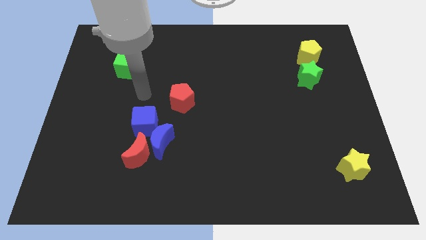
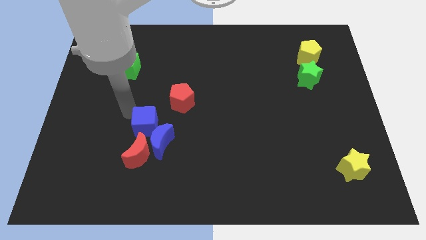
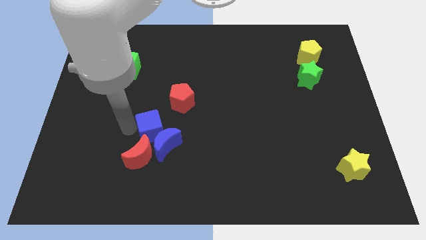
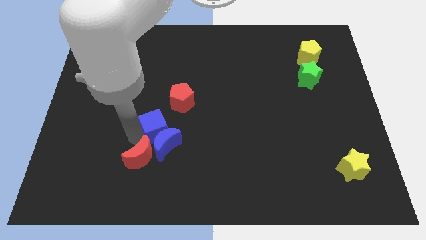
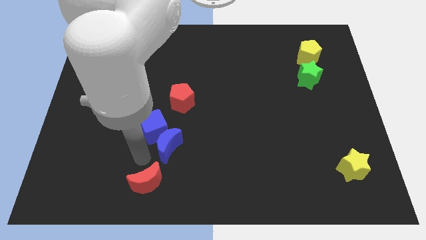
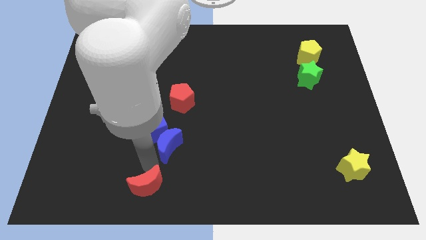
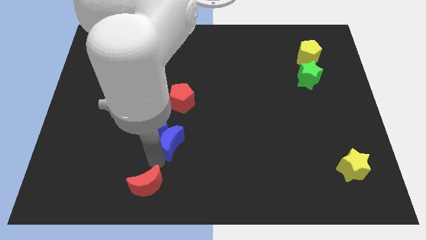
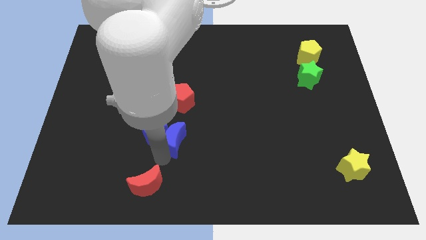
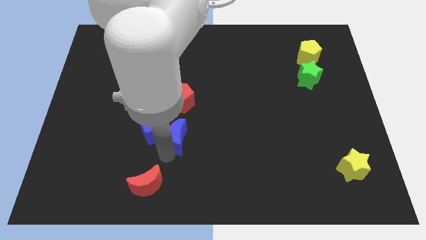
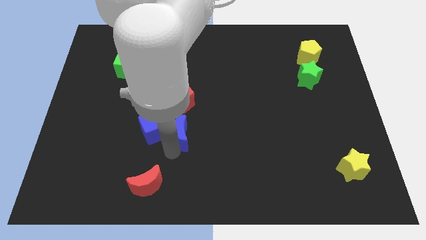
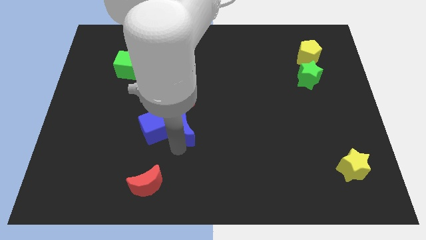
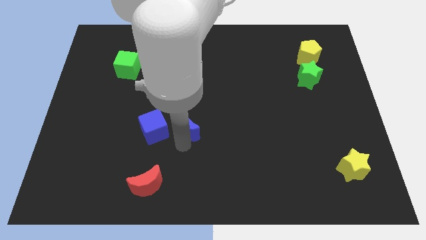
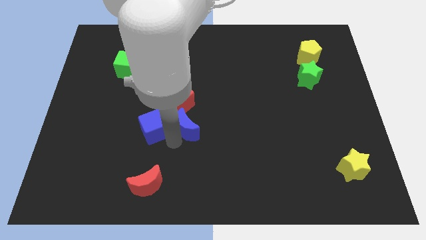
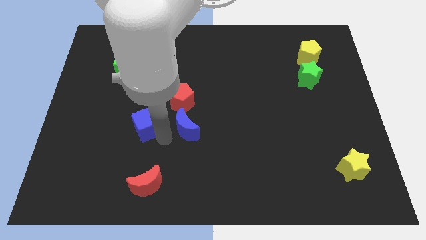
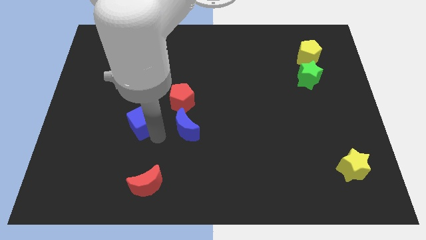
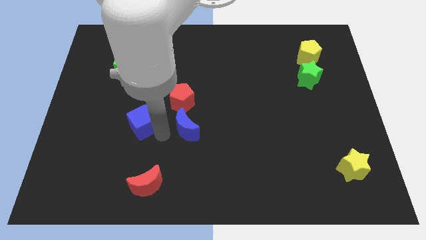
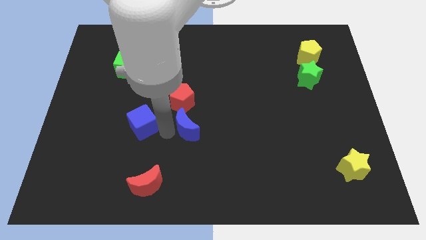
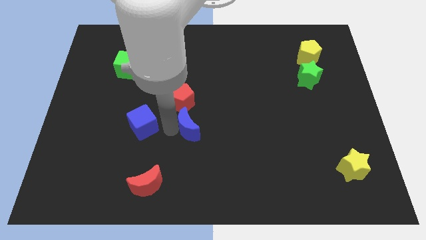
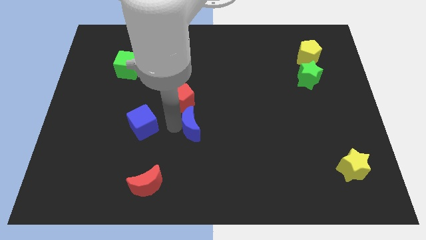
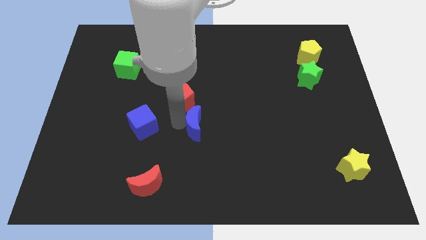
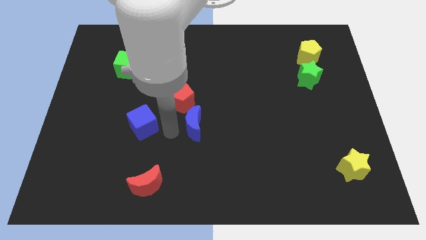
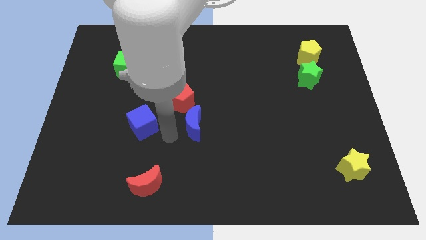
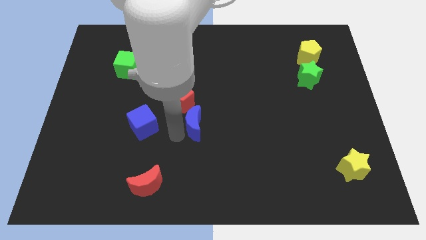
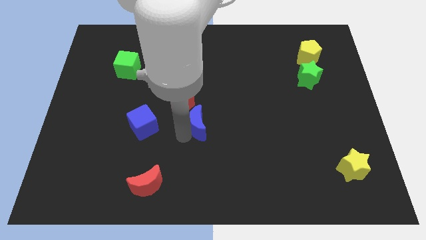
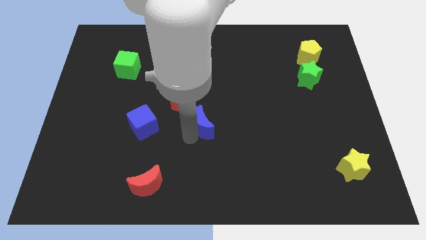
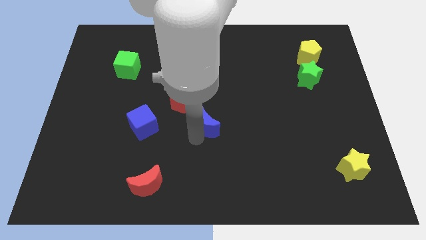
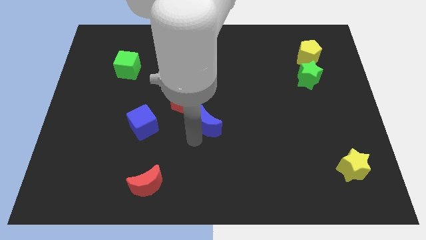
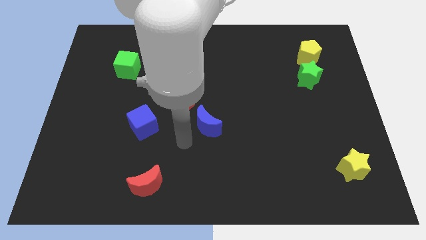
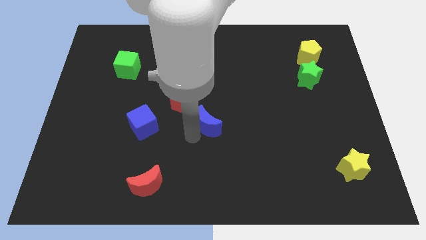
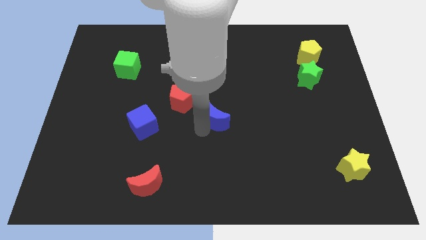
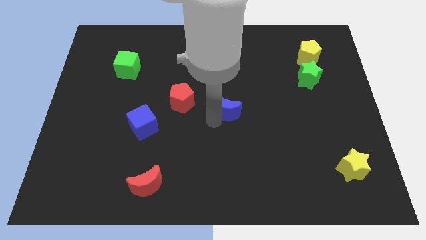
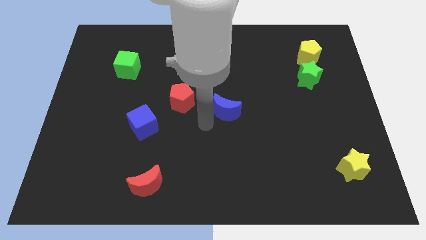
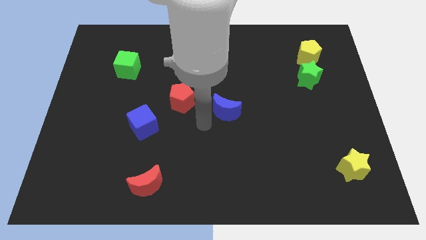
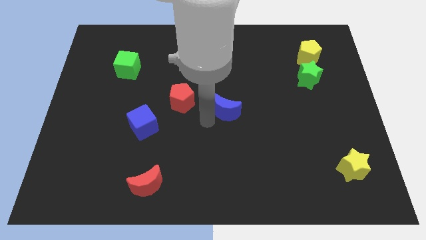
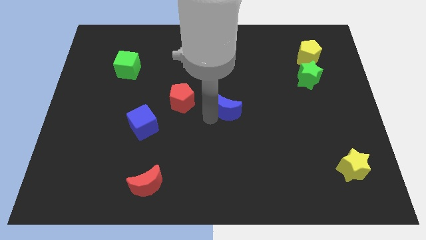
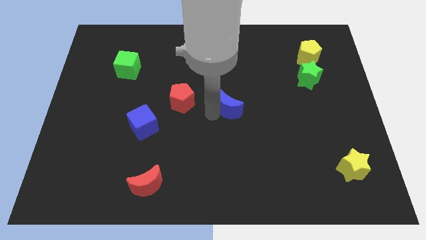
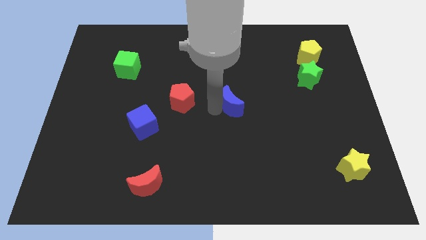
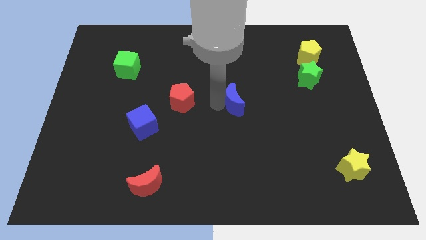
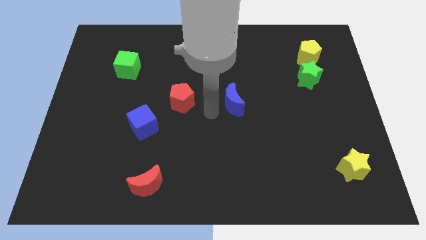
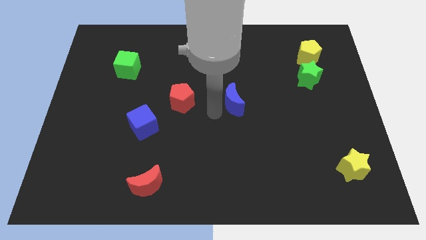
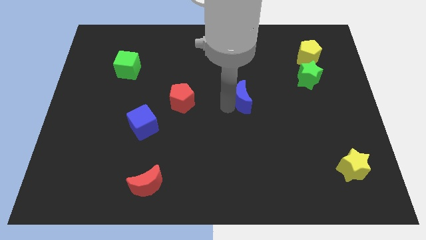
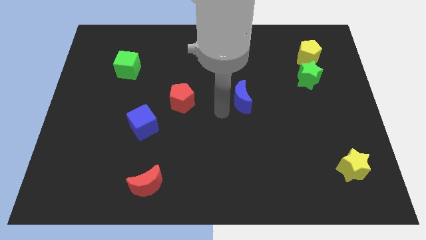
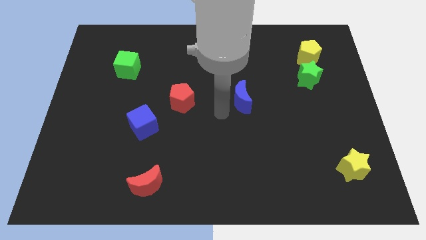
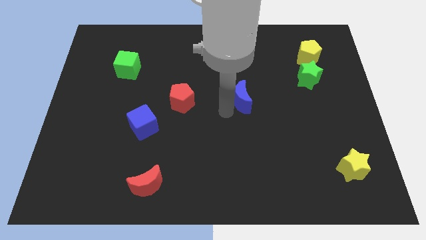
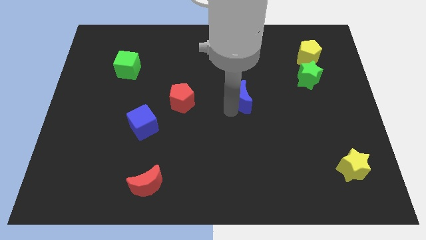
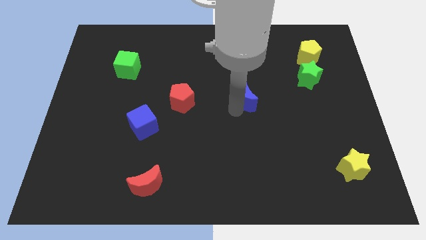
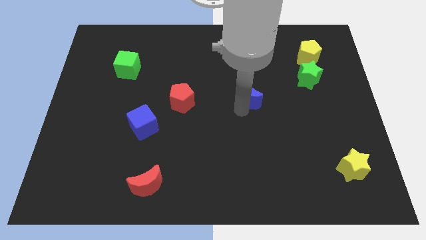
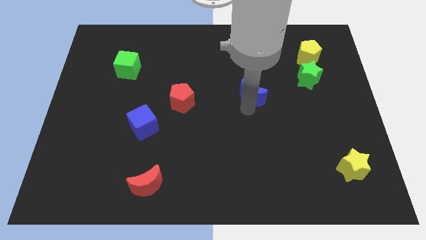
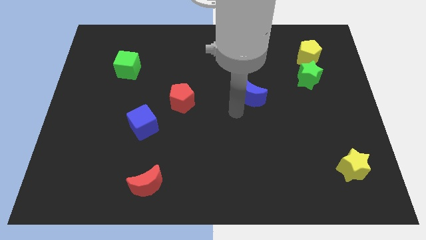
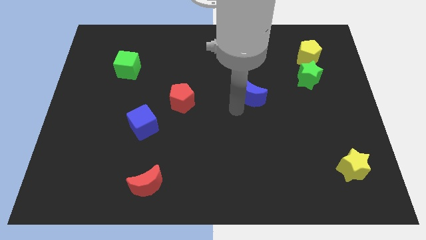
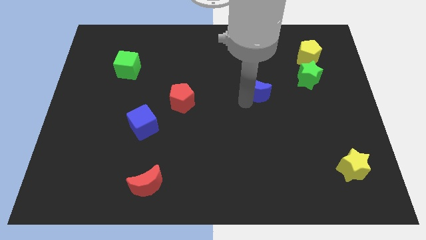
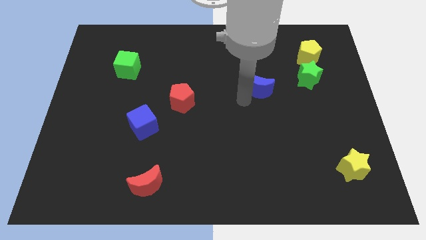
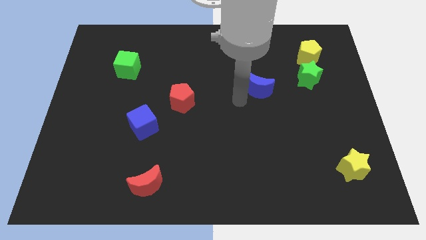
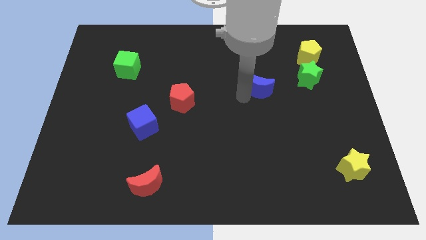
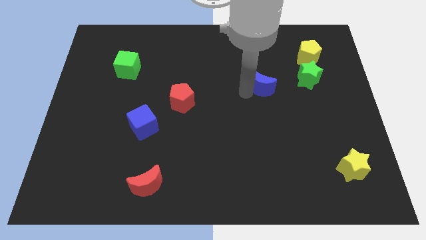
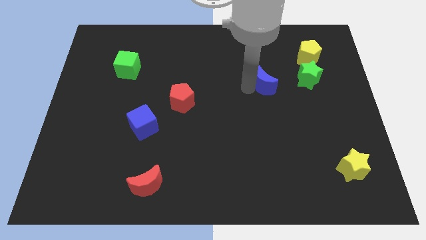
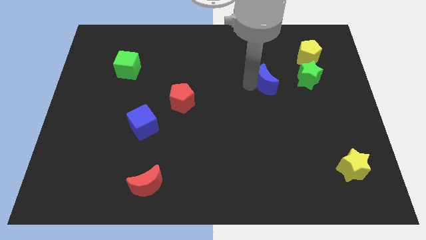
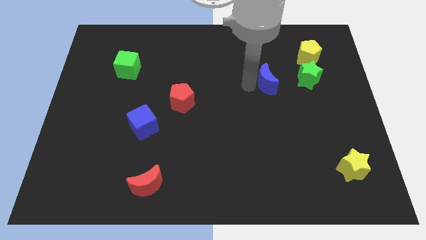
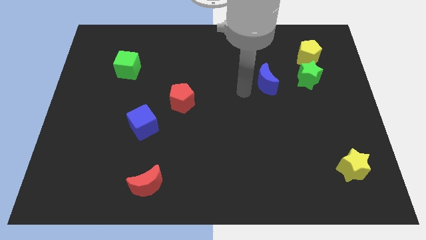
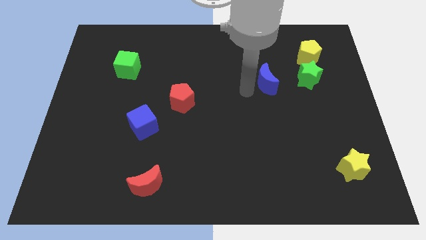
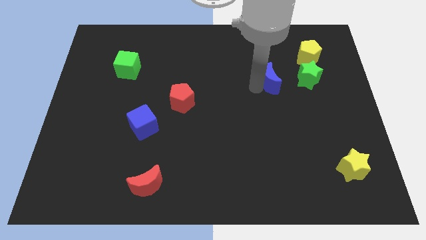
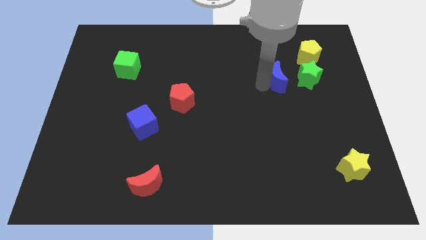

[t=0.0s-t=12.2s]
move the blue moon diagonally down and to the left of the yellow pentagon

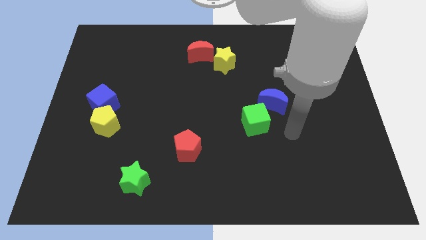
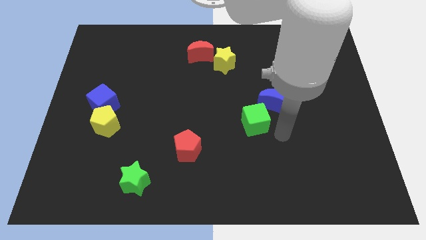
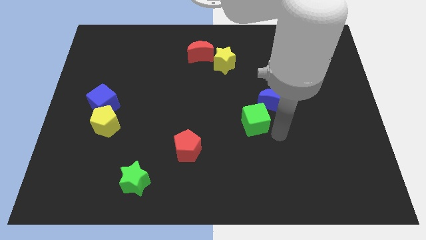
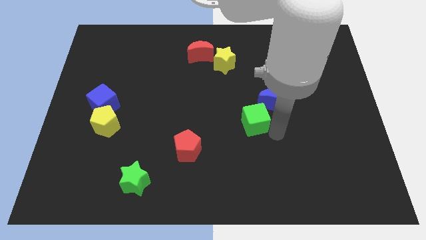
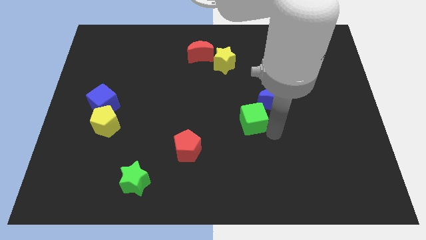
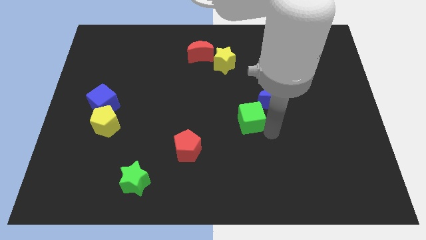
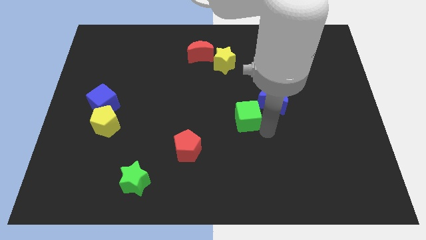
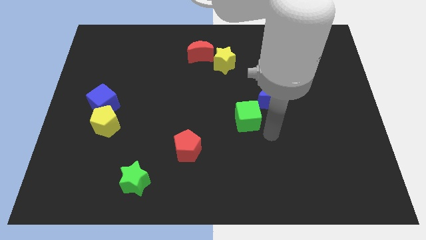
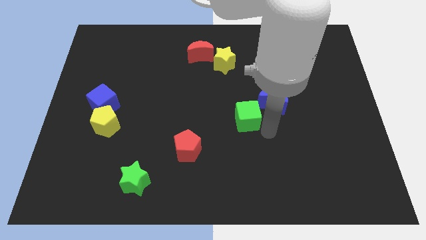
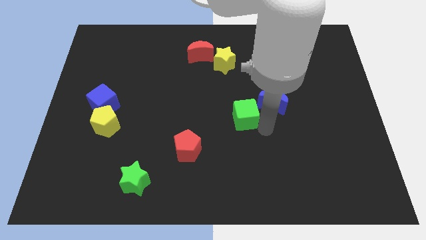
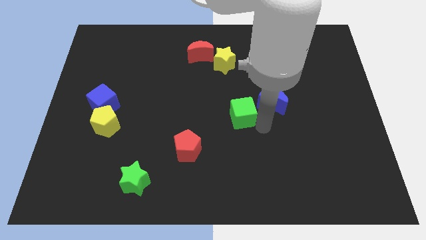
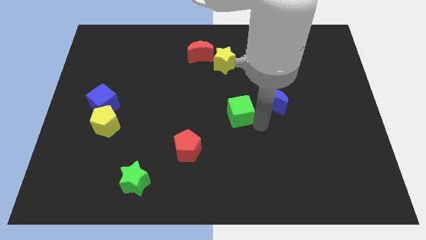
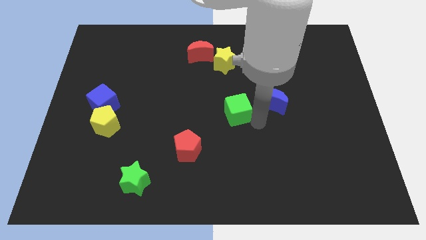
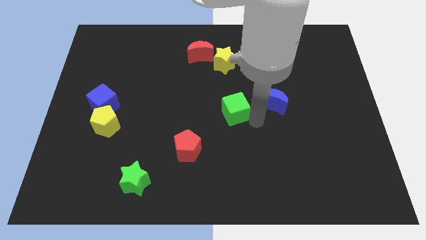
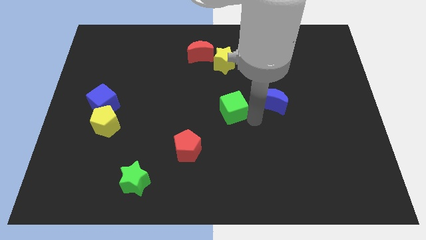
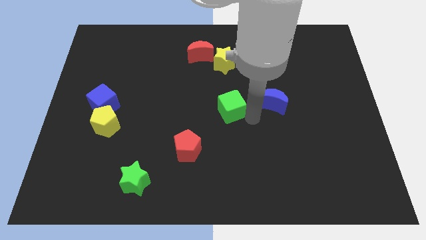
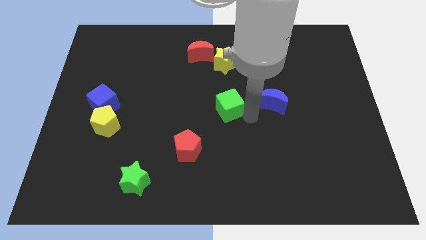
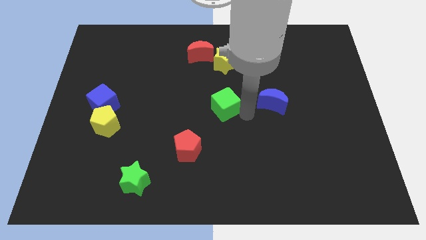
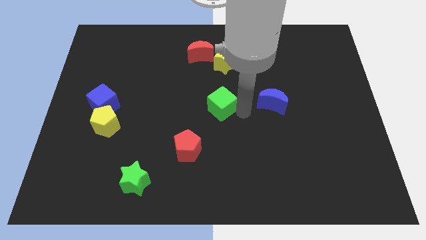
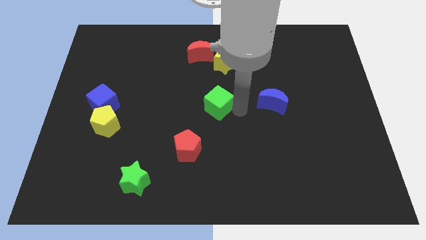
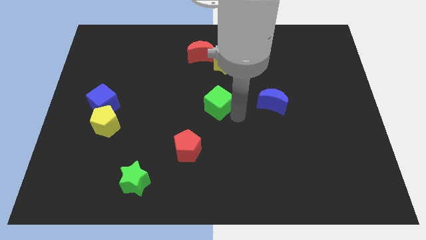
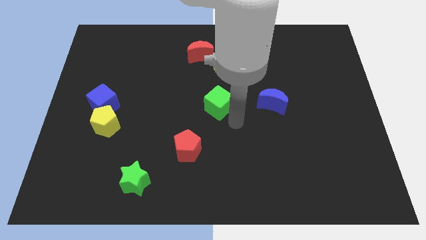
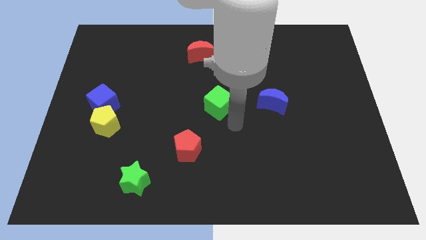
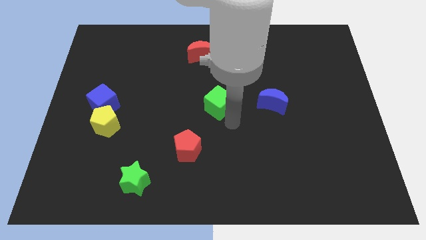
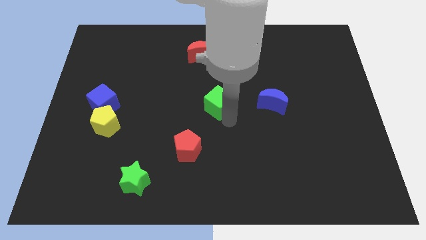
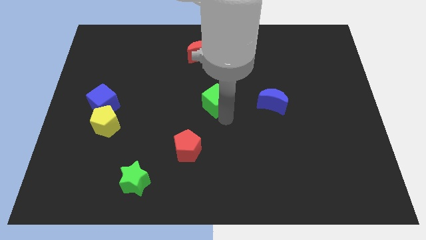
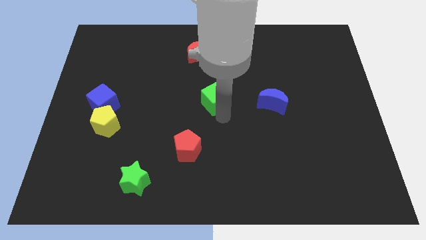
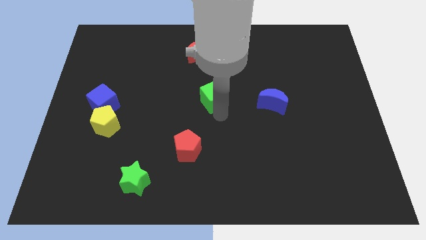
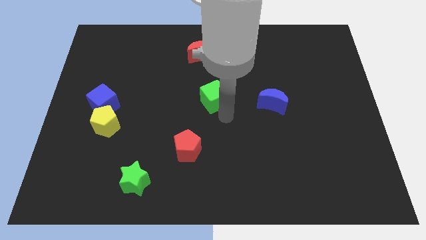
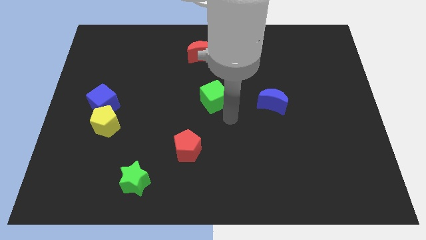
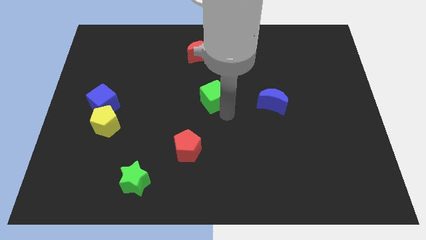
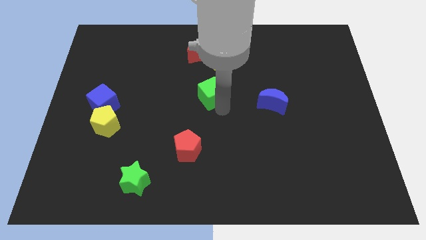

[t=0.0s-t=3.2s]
slide the green cube below the red moon
